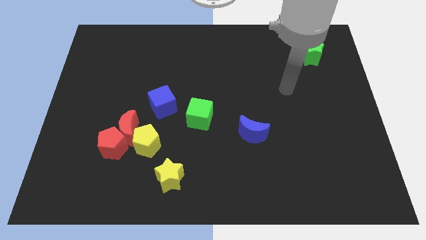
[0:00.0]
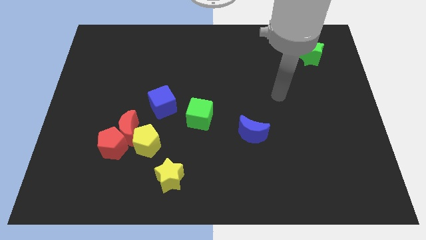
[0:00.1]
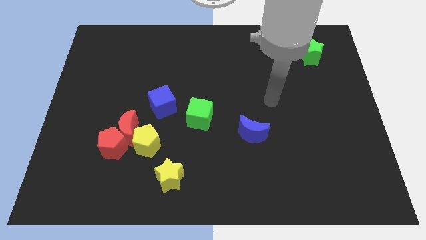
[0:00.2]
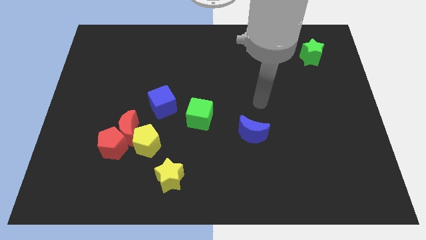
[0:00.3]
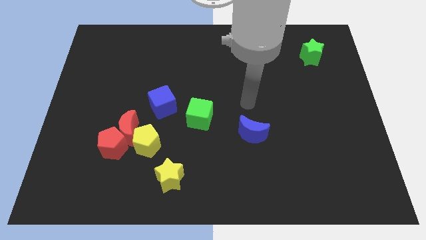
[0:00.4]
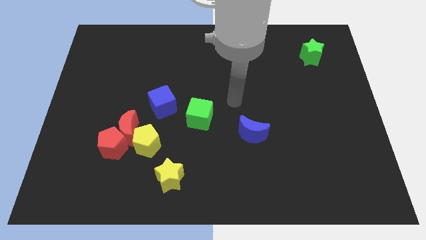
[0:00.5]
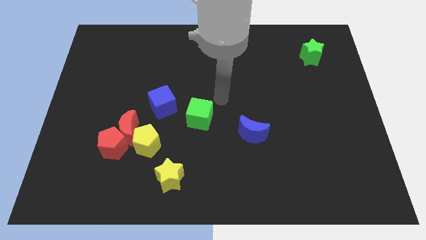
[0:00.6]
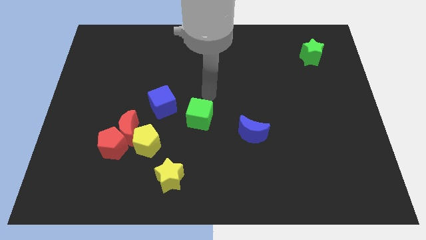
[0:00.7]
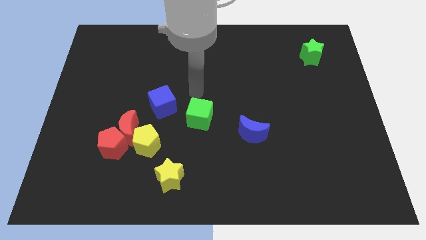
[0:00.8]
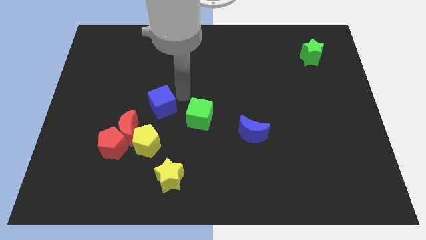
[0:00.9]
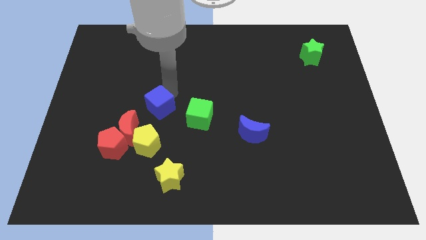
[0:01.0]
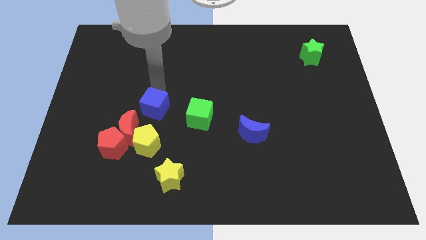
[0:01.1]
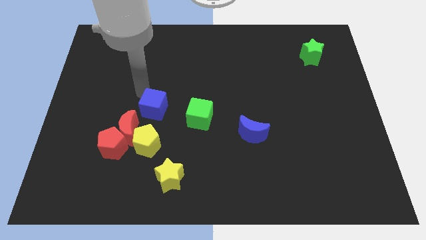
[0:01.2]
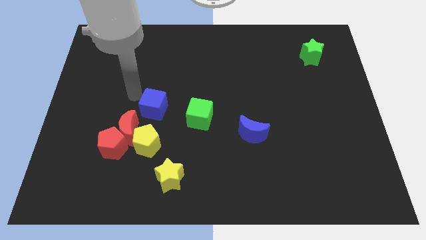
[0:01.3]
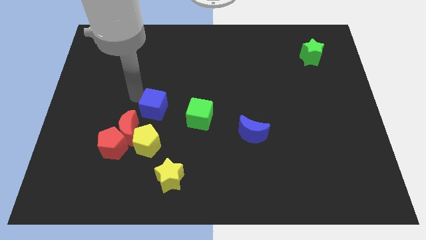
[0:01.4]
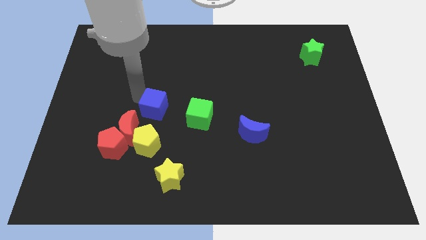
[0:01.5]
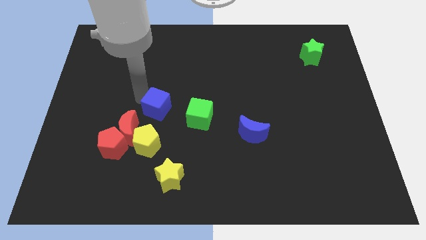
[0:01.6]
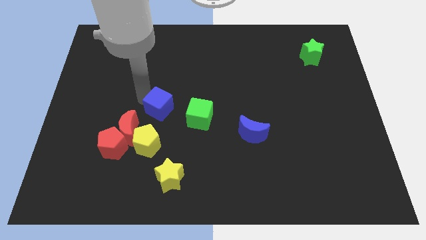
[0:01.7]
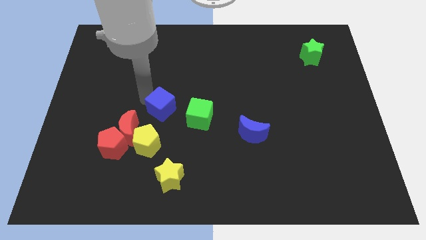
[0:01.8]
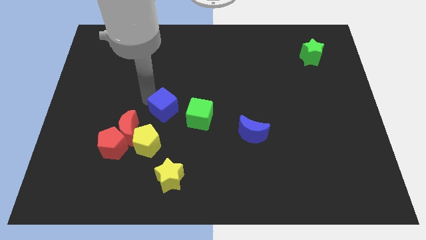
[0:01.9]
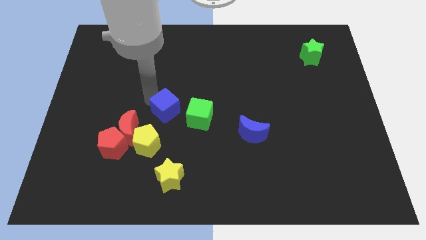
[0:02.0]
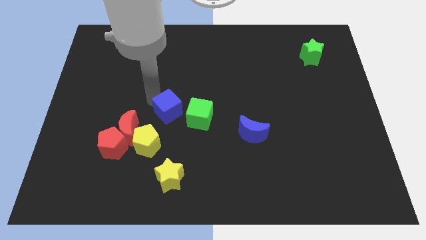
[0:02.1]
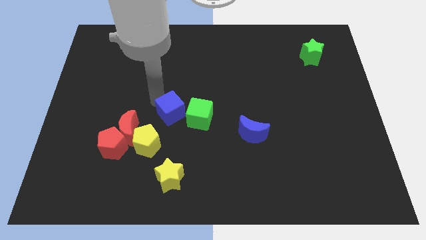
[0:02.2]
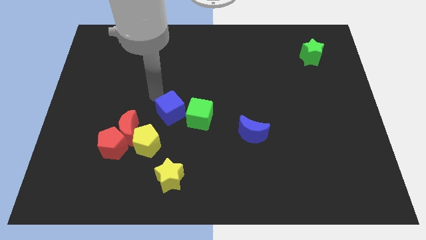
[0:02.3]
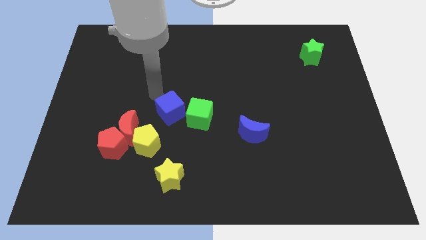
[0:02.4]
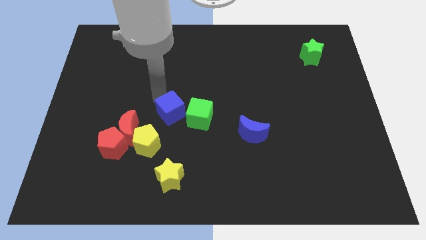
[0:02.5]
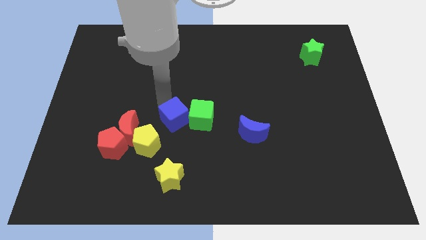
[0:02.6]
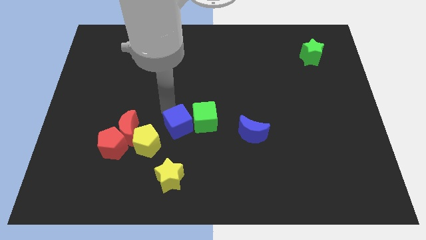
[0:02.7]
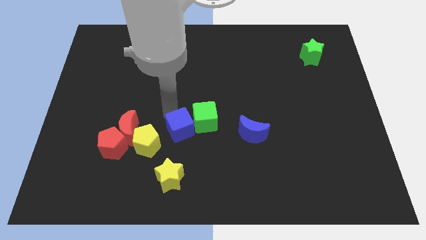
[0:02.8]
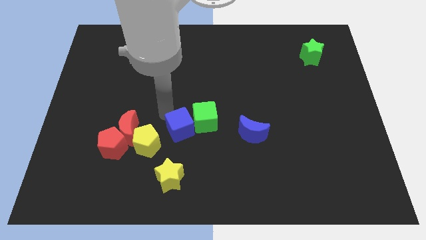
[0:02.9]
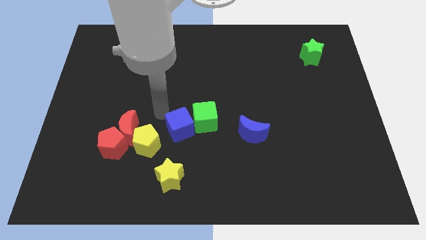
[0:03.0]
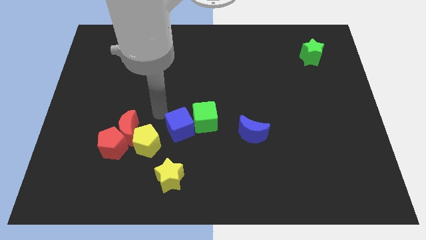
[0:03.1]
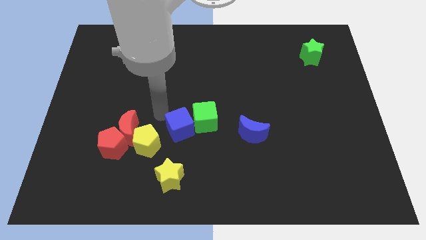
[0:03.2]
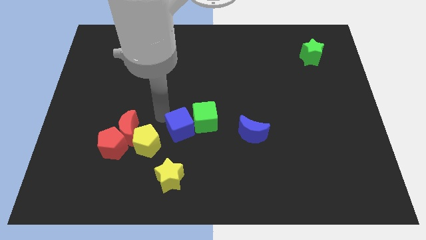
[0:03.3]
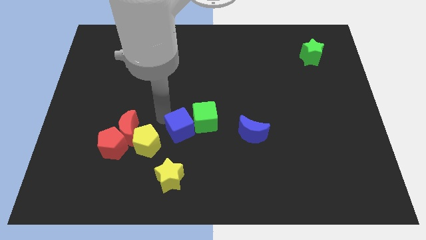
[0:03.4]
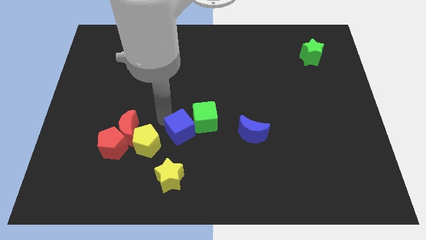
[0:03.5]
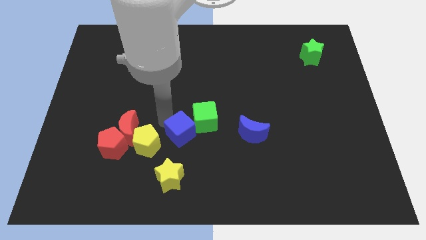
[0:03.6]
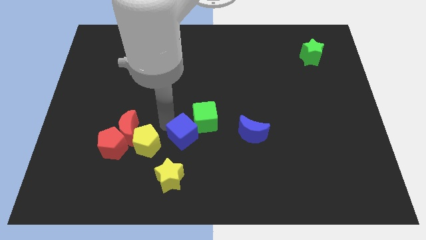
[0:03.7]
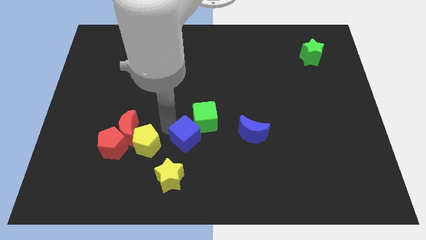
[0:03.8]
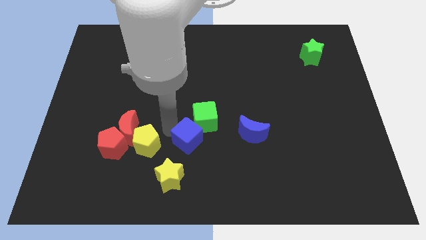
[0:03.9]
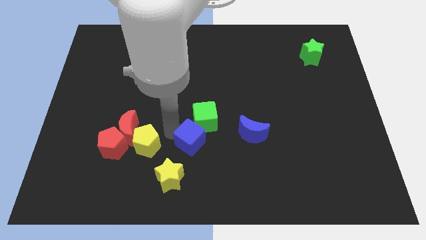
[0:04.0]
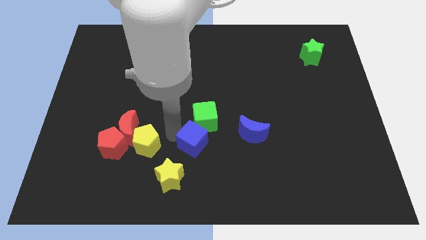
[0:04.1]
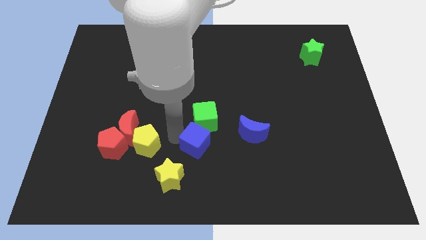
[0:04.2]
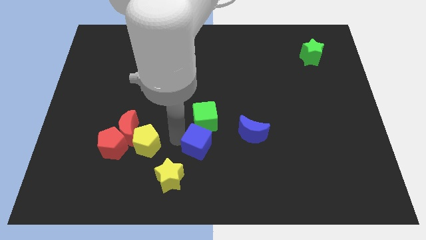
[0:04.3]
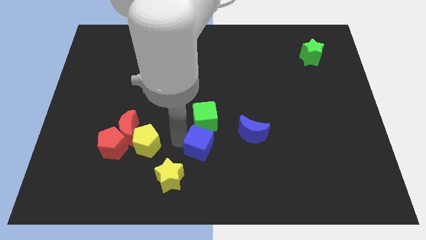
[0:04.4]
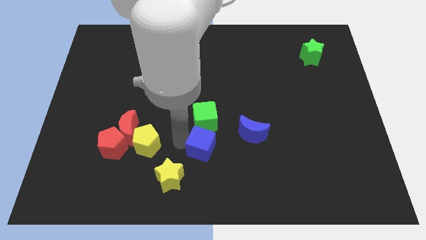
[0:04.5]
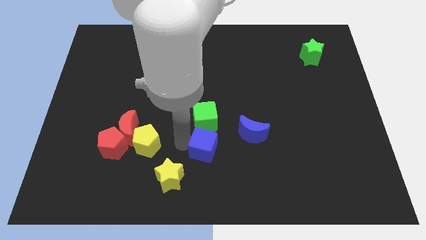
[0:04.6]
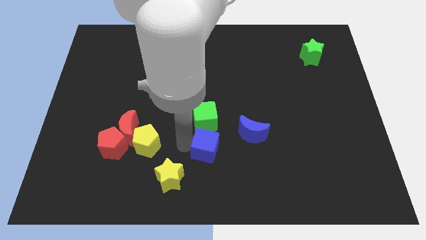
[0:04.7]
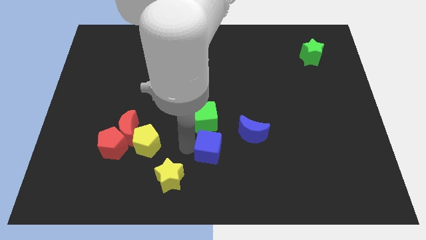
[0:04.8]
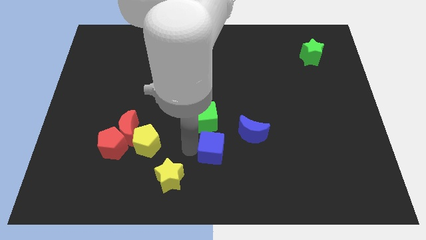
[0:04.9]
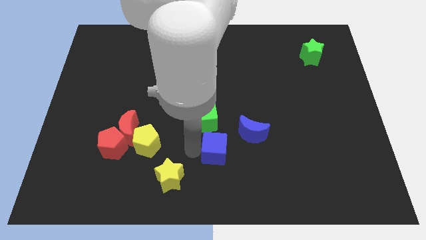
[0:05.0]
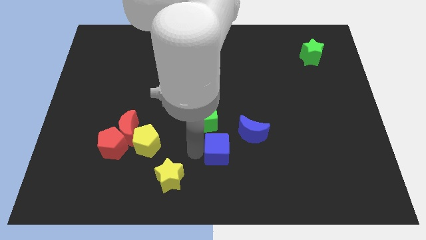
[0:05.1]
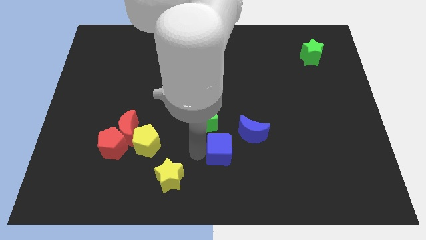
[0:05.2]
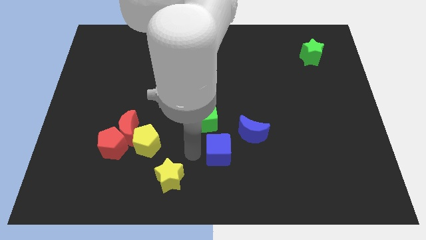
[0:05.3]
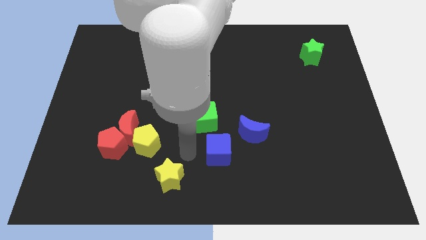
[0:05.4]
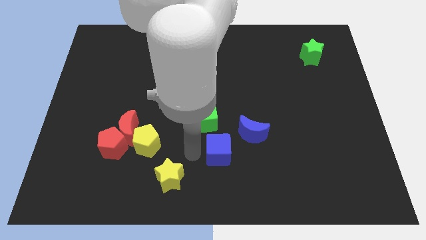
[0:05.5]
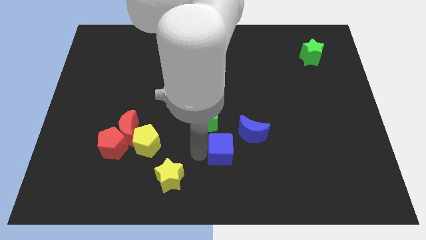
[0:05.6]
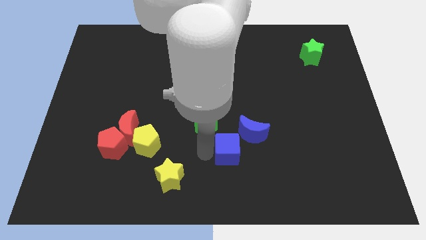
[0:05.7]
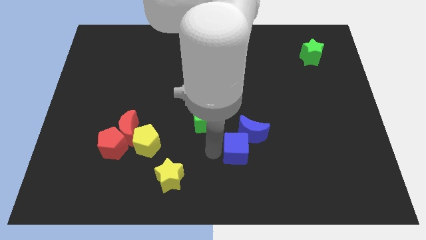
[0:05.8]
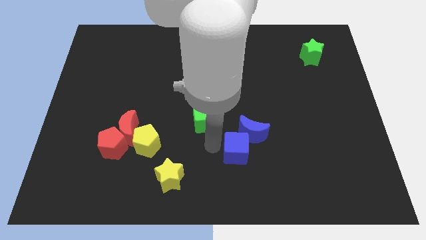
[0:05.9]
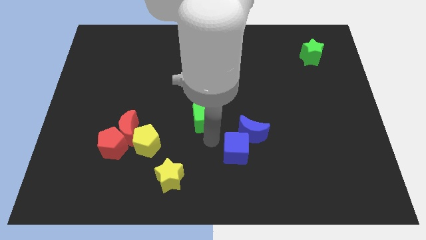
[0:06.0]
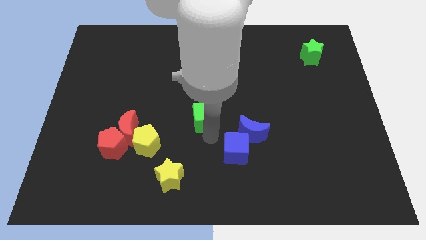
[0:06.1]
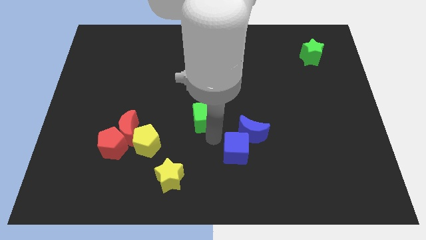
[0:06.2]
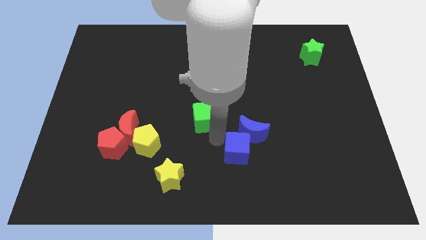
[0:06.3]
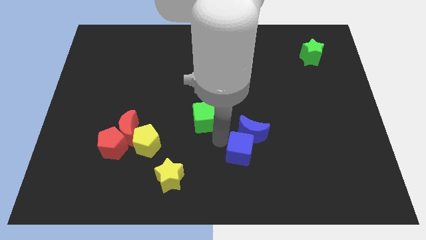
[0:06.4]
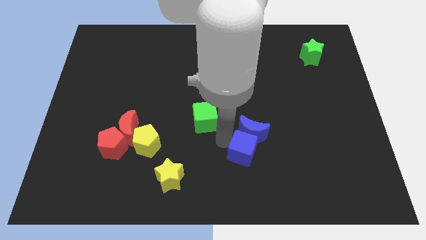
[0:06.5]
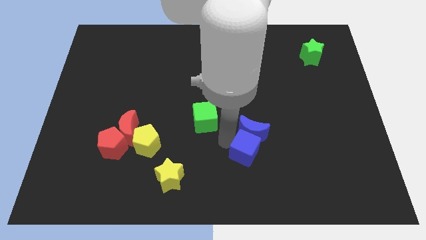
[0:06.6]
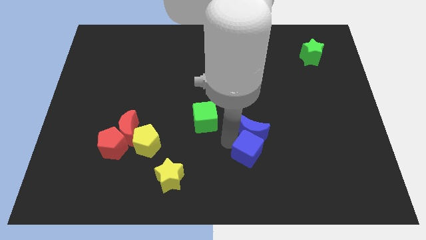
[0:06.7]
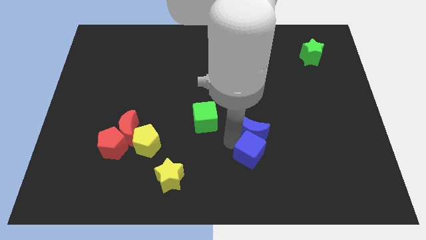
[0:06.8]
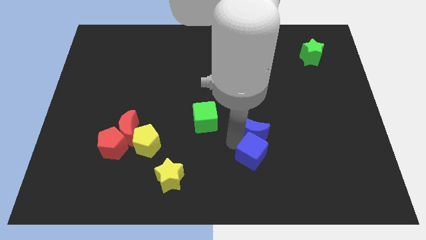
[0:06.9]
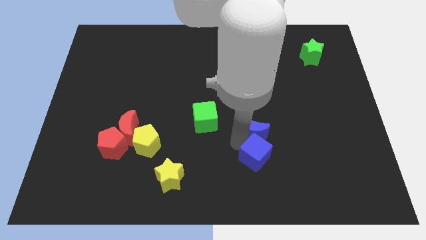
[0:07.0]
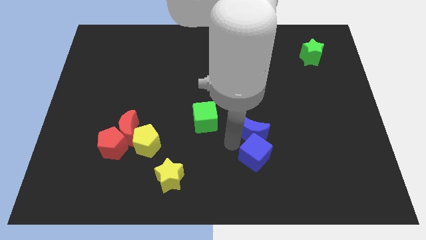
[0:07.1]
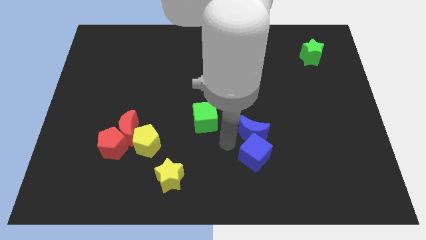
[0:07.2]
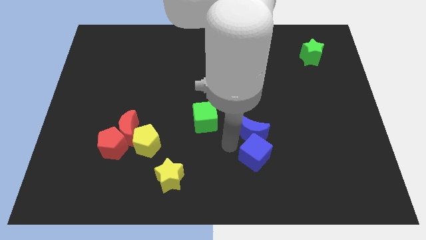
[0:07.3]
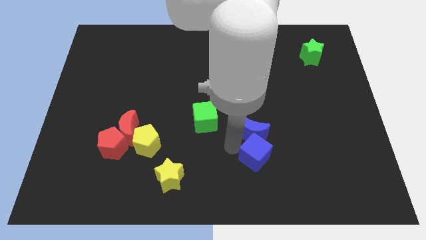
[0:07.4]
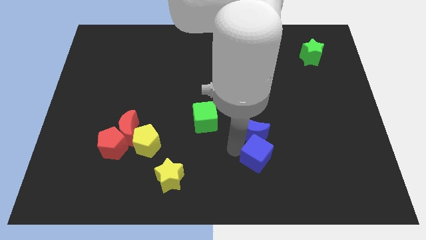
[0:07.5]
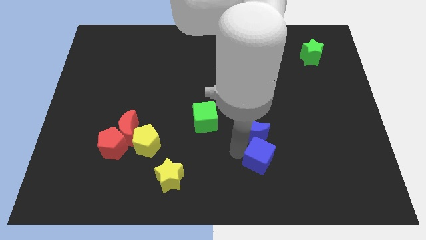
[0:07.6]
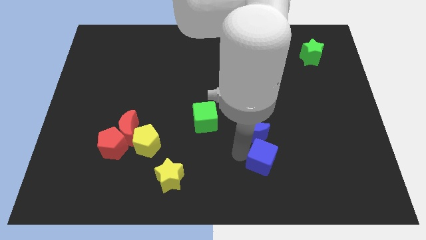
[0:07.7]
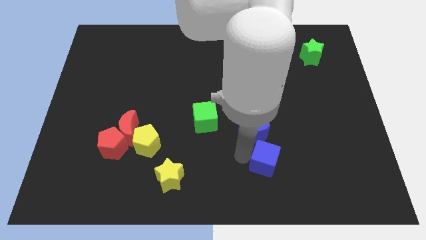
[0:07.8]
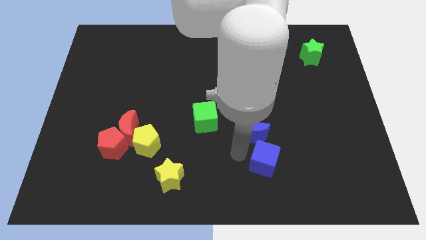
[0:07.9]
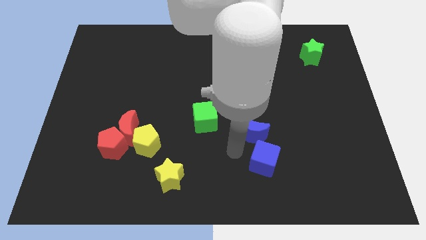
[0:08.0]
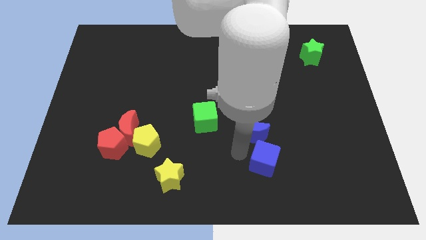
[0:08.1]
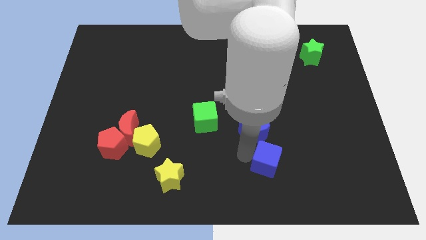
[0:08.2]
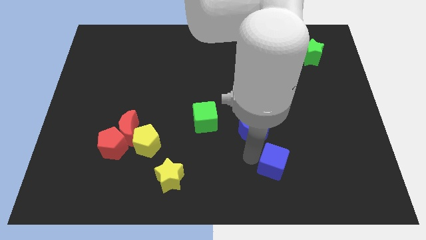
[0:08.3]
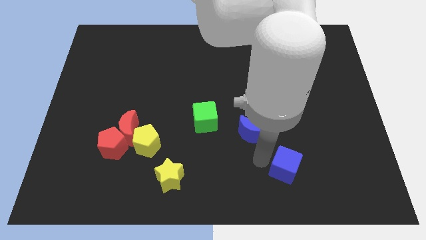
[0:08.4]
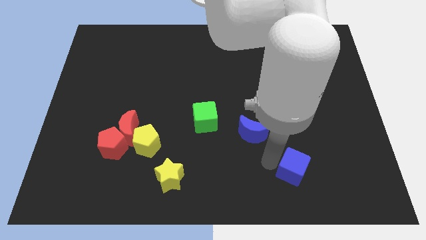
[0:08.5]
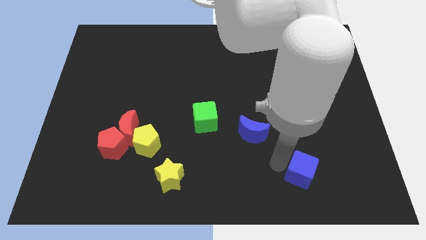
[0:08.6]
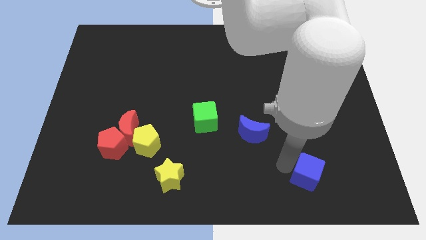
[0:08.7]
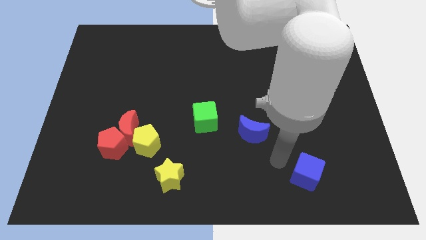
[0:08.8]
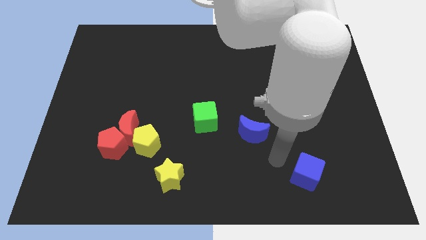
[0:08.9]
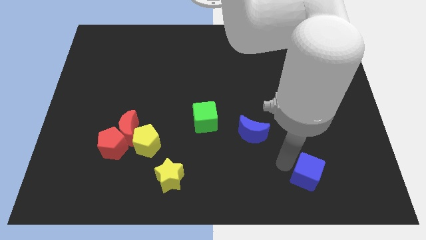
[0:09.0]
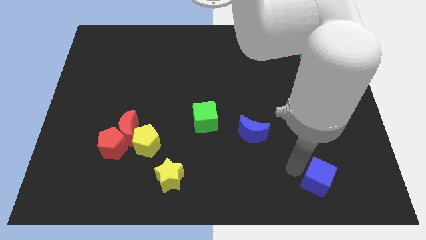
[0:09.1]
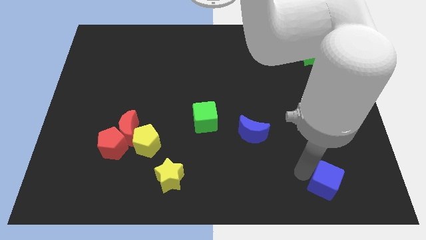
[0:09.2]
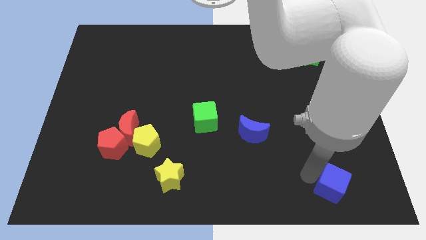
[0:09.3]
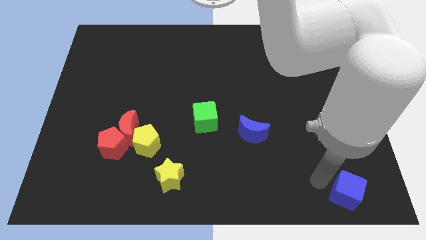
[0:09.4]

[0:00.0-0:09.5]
put the blue cube to the bottom right of the board
